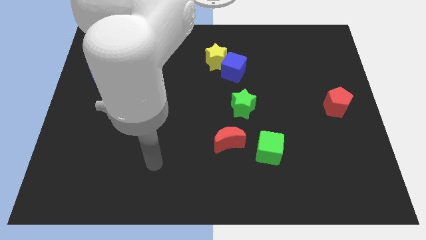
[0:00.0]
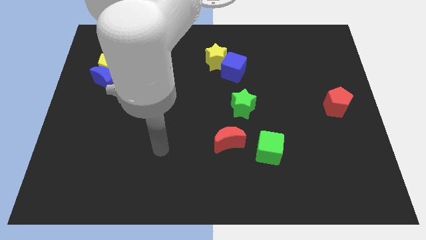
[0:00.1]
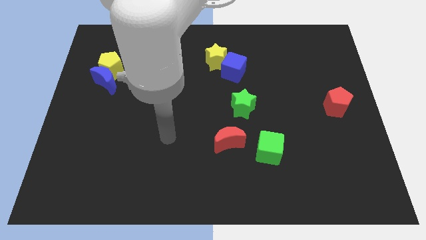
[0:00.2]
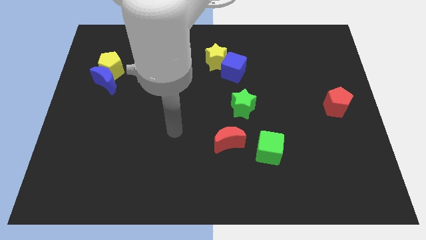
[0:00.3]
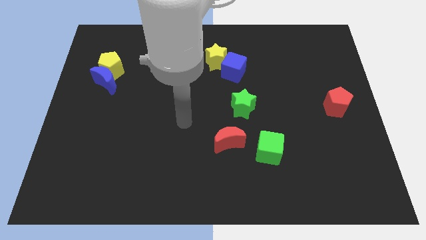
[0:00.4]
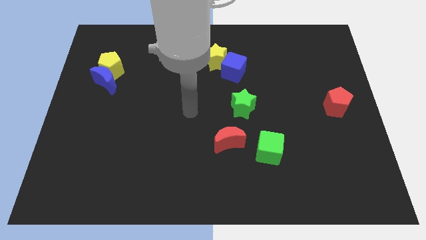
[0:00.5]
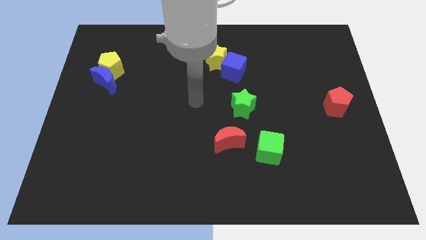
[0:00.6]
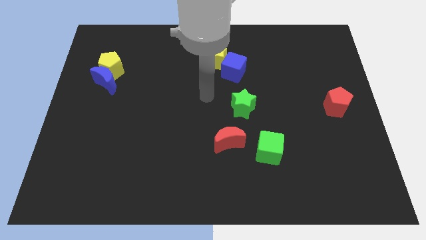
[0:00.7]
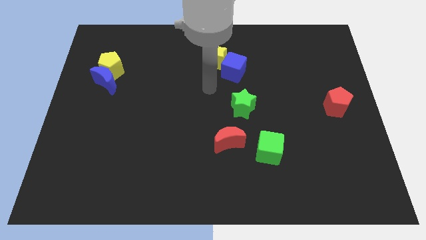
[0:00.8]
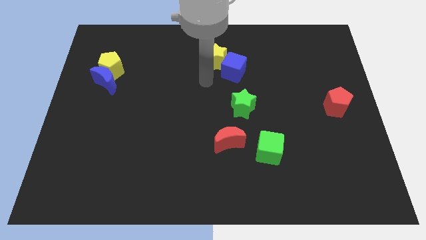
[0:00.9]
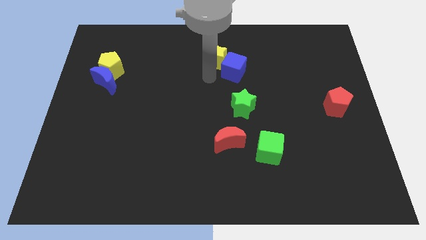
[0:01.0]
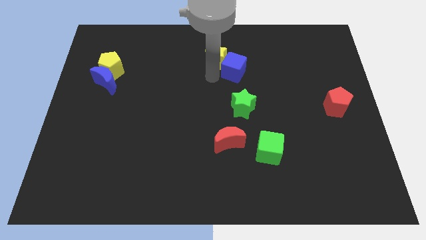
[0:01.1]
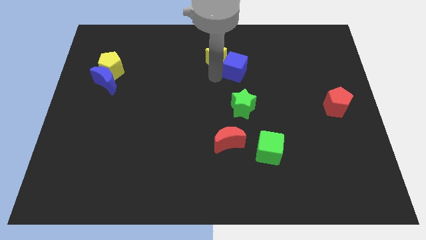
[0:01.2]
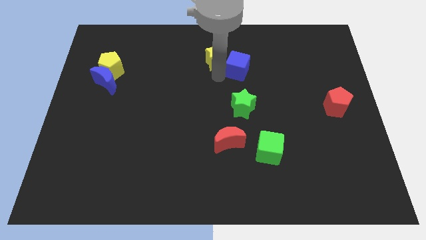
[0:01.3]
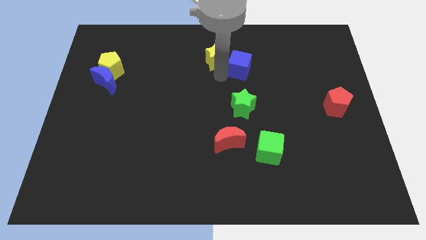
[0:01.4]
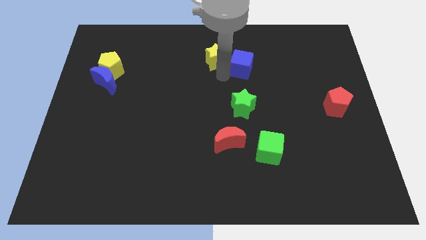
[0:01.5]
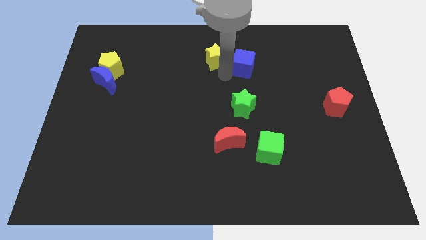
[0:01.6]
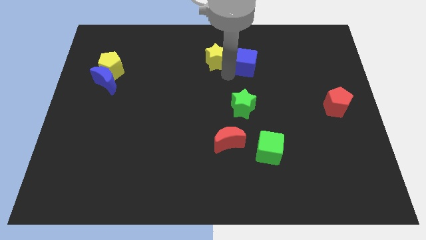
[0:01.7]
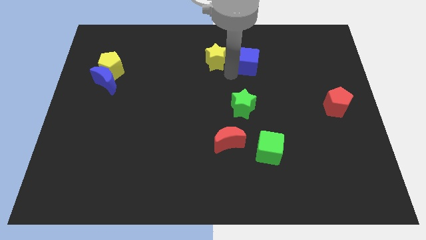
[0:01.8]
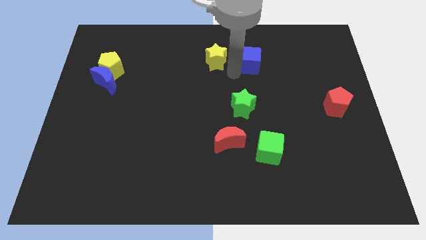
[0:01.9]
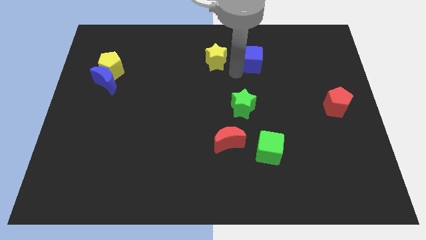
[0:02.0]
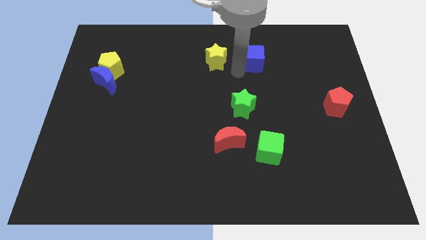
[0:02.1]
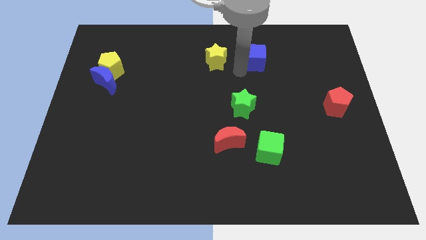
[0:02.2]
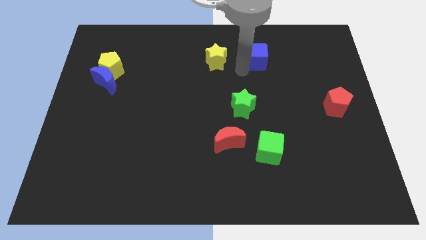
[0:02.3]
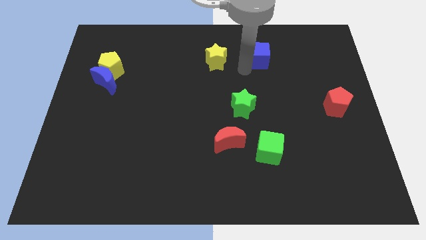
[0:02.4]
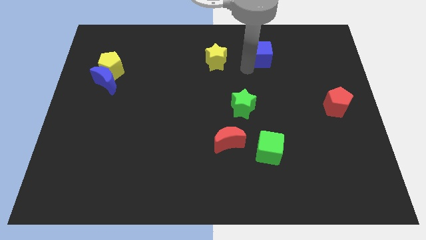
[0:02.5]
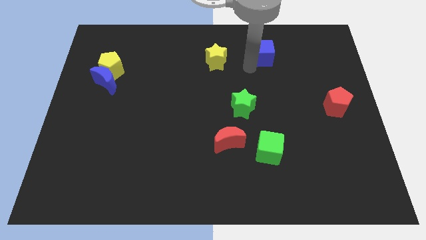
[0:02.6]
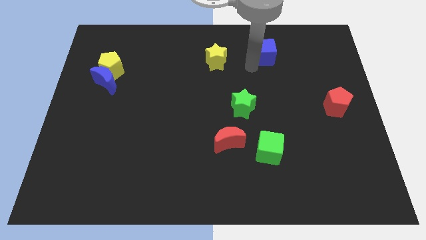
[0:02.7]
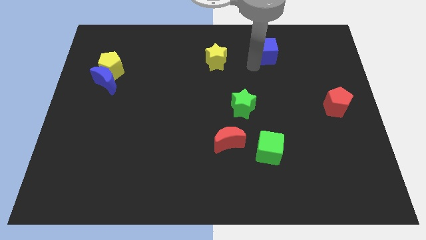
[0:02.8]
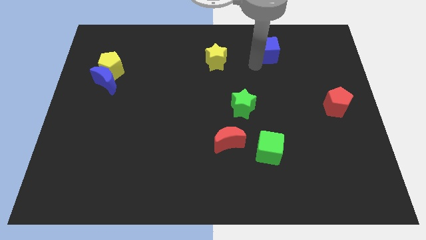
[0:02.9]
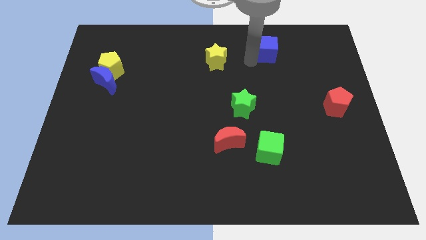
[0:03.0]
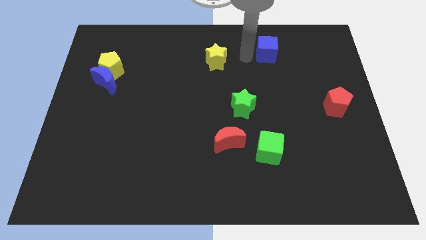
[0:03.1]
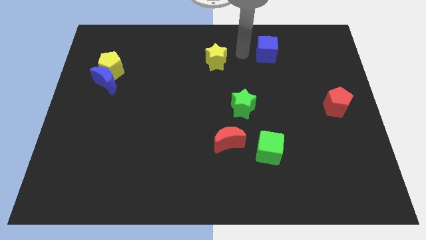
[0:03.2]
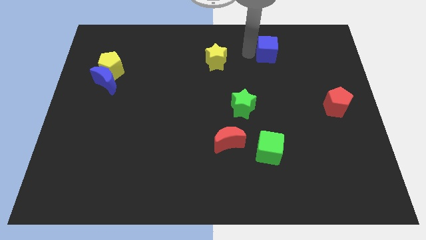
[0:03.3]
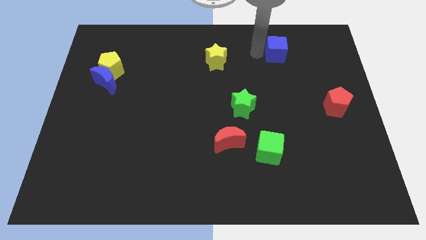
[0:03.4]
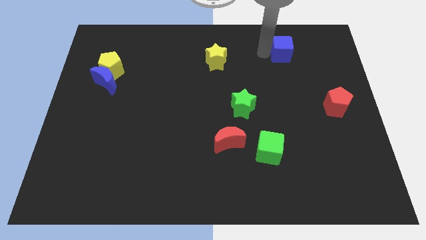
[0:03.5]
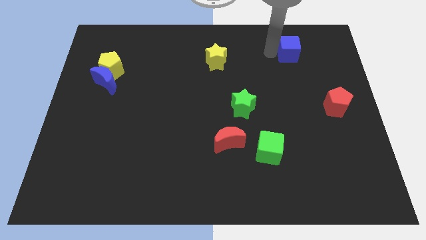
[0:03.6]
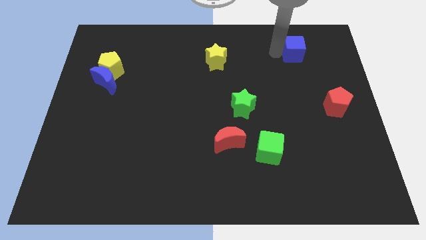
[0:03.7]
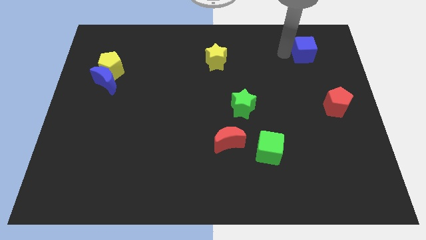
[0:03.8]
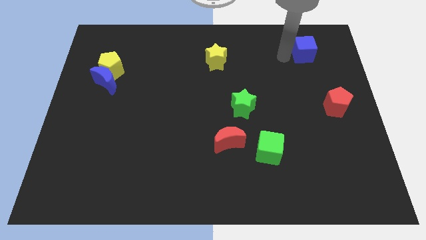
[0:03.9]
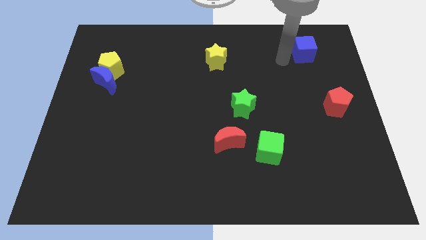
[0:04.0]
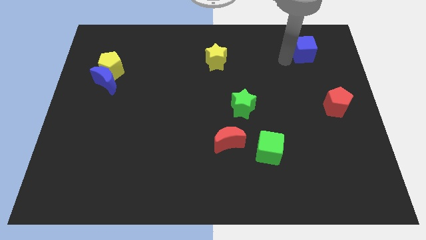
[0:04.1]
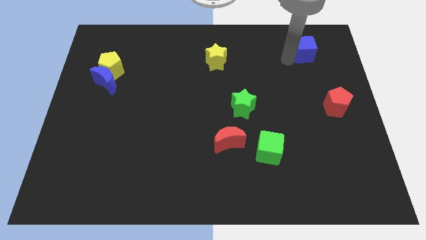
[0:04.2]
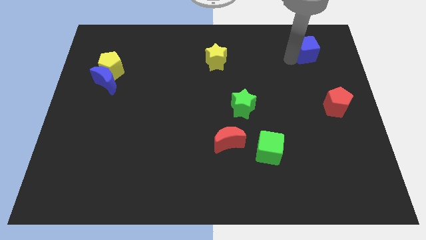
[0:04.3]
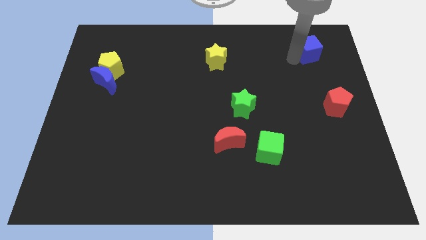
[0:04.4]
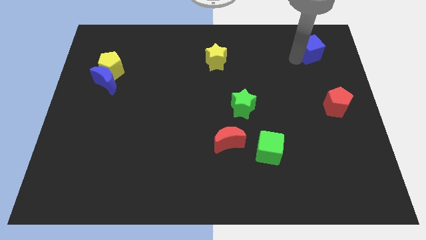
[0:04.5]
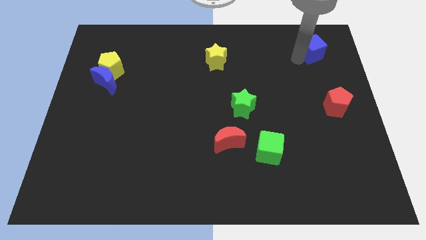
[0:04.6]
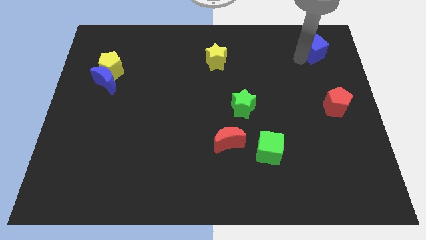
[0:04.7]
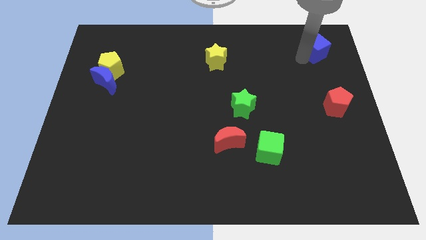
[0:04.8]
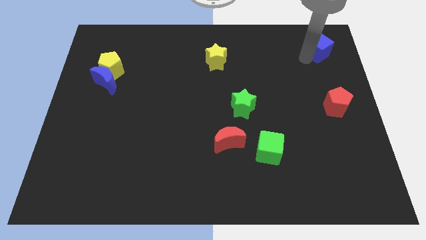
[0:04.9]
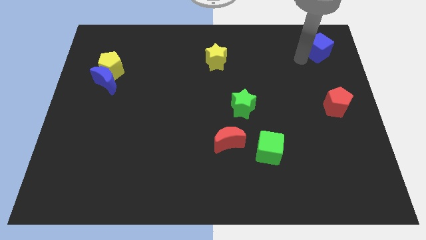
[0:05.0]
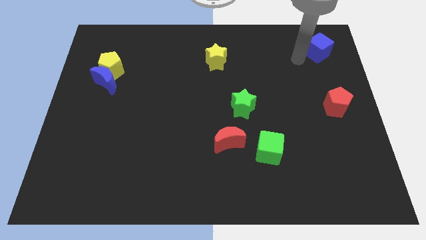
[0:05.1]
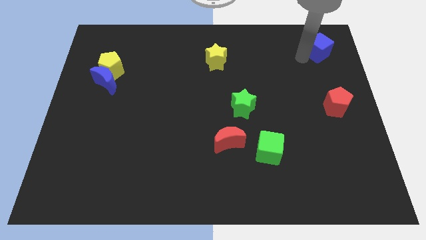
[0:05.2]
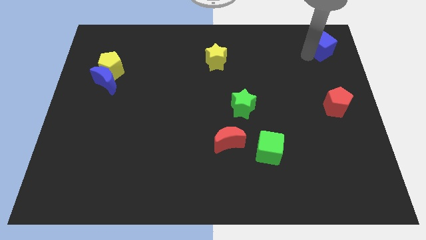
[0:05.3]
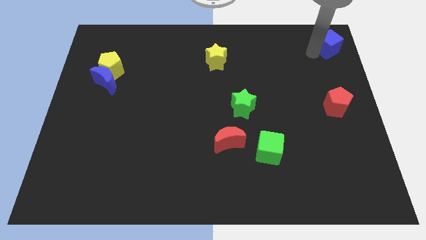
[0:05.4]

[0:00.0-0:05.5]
push the blue cube to the top right of the board

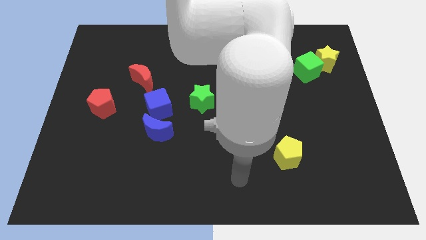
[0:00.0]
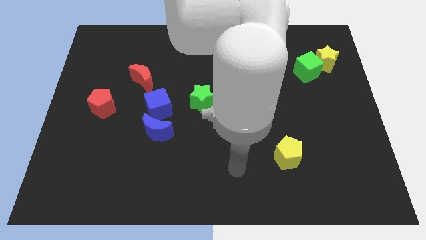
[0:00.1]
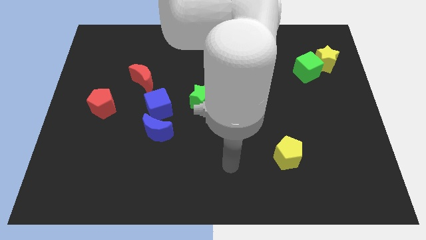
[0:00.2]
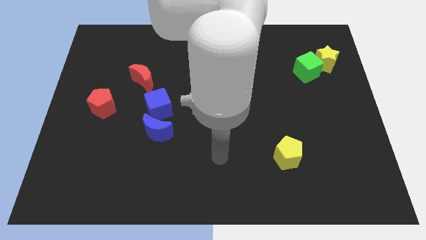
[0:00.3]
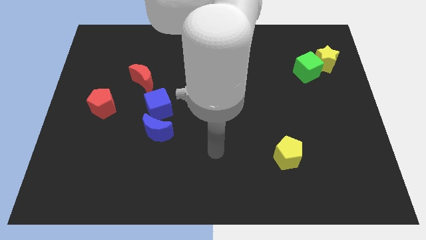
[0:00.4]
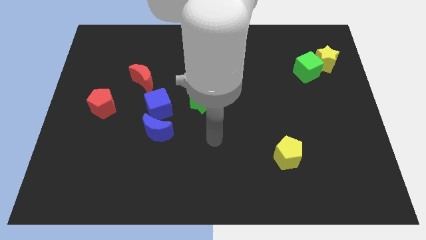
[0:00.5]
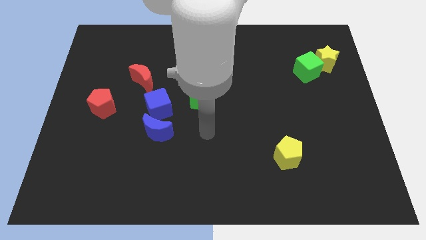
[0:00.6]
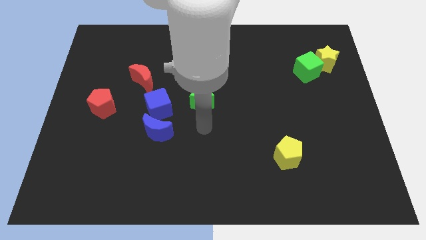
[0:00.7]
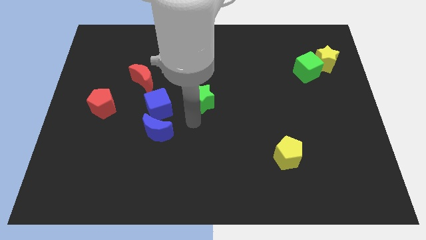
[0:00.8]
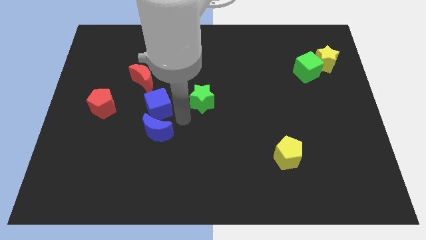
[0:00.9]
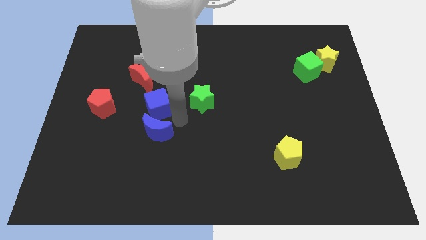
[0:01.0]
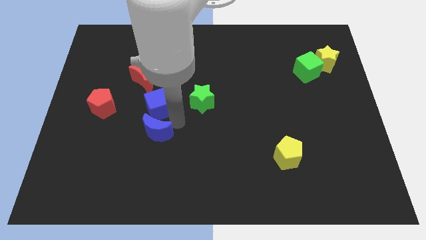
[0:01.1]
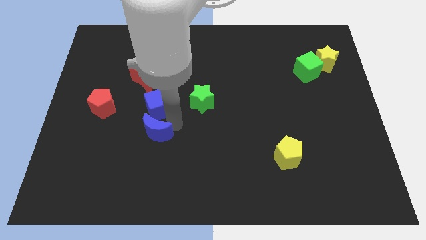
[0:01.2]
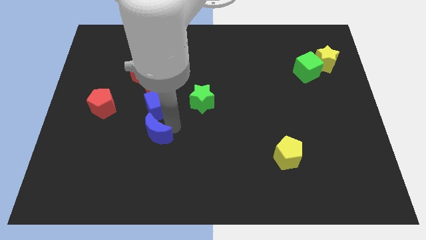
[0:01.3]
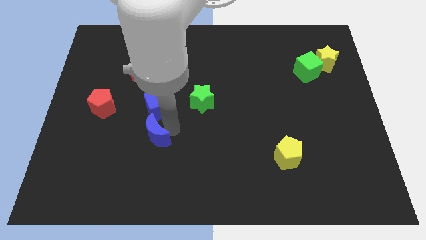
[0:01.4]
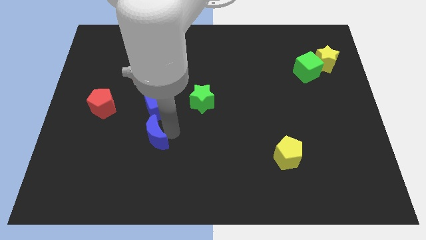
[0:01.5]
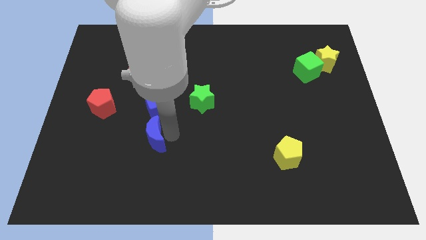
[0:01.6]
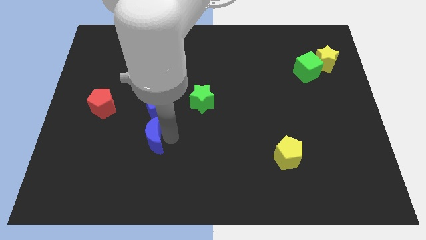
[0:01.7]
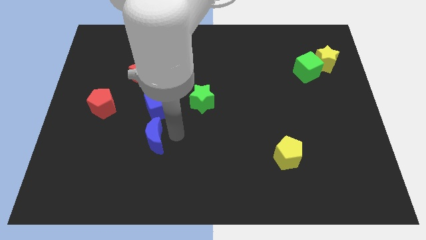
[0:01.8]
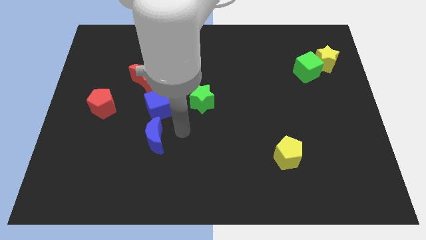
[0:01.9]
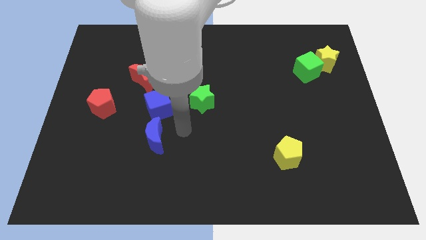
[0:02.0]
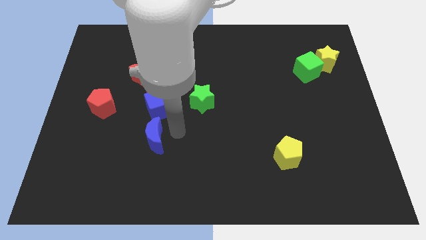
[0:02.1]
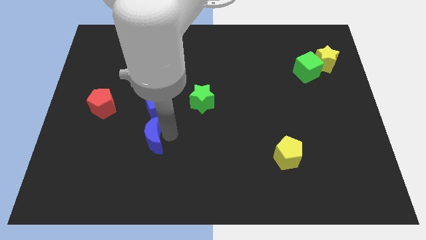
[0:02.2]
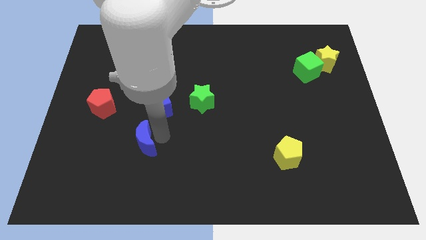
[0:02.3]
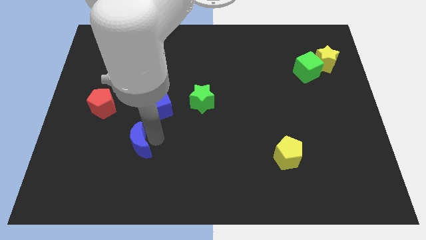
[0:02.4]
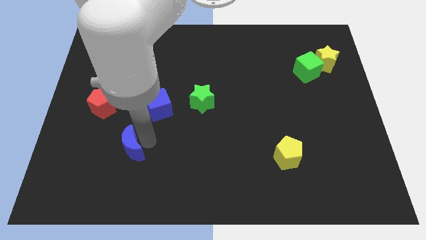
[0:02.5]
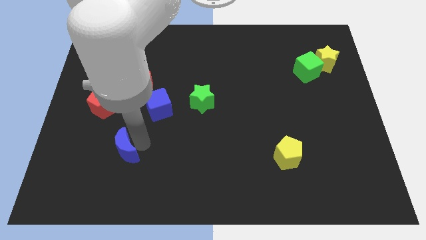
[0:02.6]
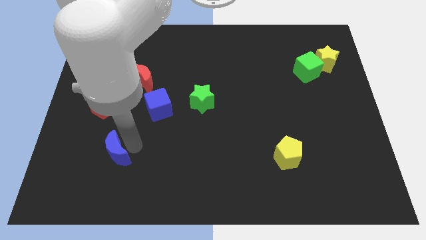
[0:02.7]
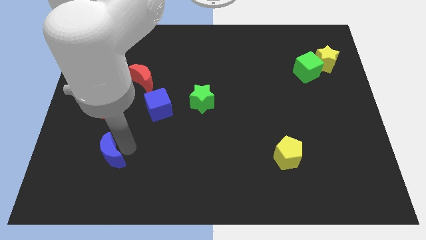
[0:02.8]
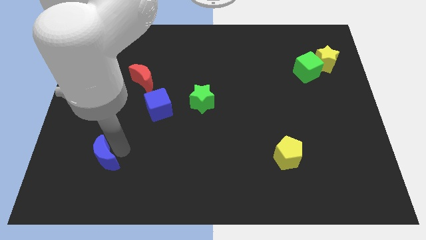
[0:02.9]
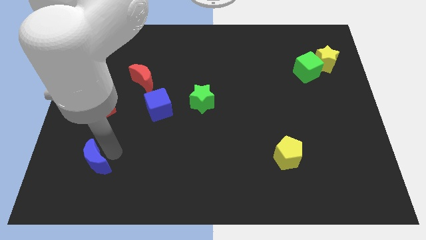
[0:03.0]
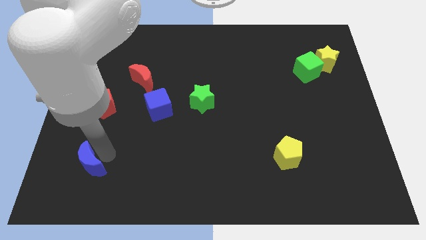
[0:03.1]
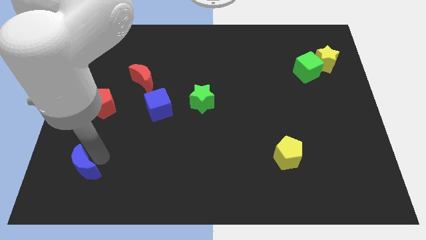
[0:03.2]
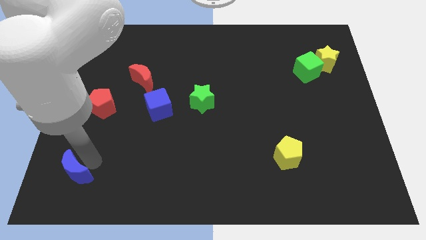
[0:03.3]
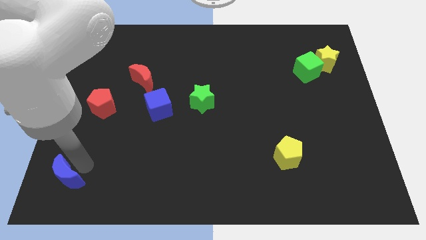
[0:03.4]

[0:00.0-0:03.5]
push the blue moon to the lower left corner
